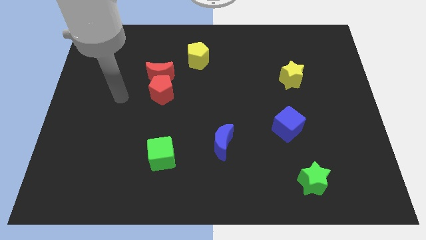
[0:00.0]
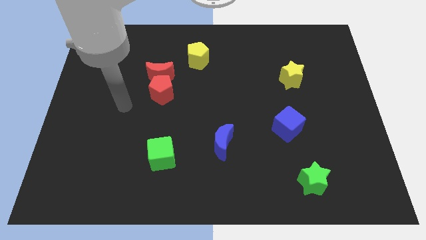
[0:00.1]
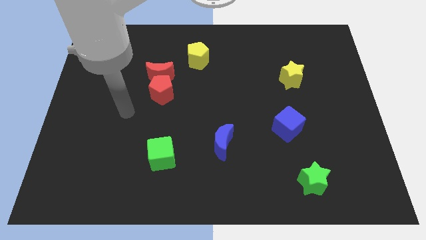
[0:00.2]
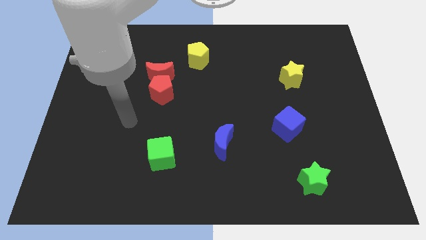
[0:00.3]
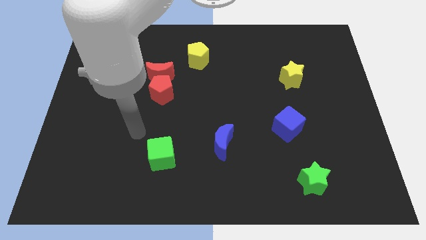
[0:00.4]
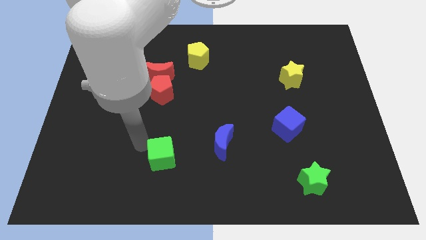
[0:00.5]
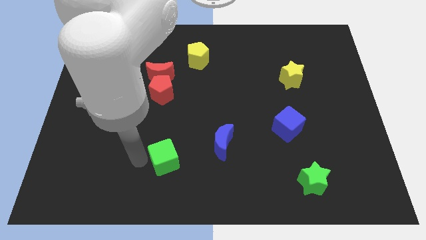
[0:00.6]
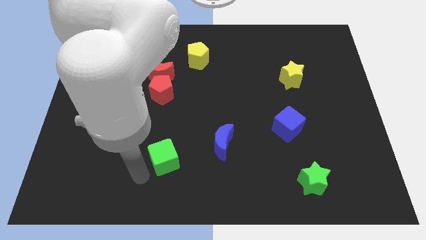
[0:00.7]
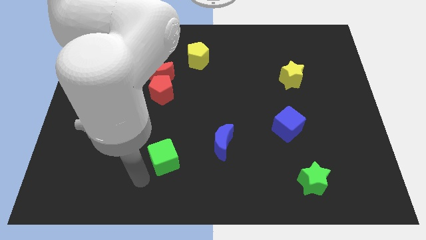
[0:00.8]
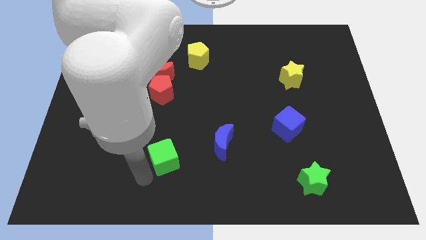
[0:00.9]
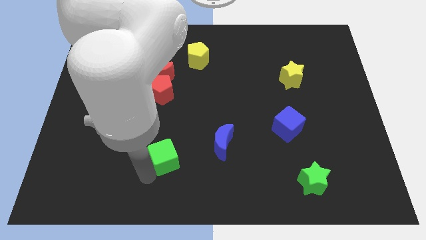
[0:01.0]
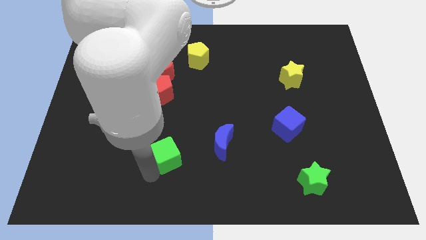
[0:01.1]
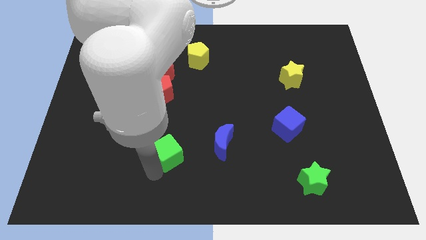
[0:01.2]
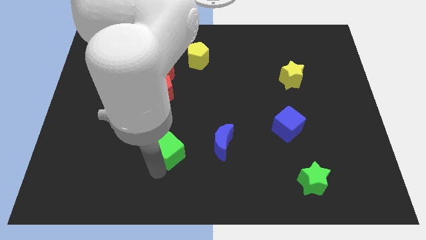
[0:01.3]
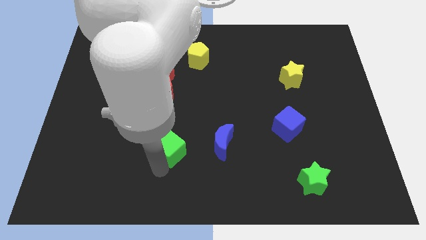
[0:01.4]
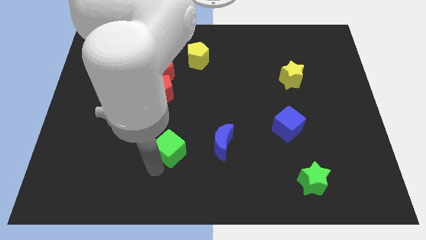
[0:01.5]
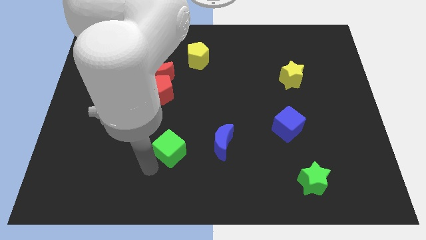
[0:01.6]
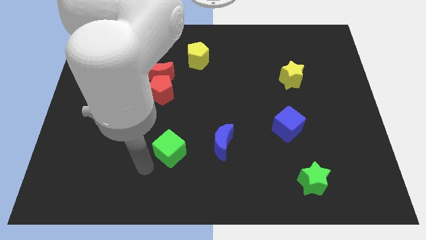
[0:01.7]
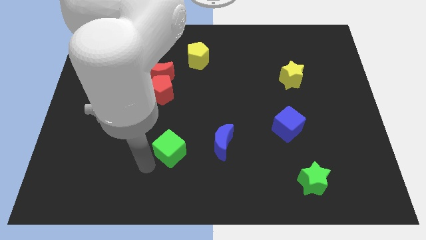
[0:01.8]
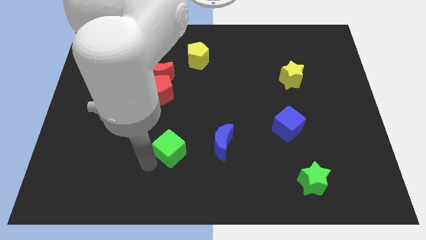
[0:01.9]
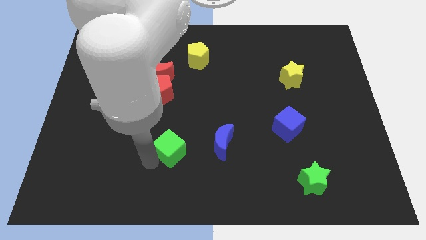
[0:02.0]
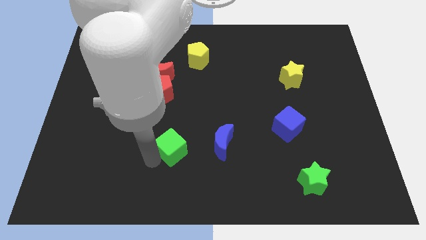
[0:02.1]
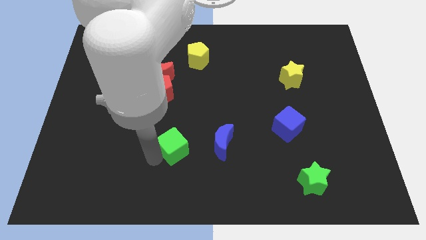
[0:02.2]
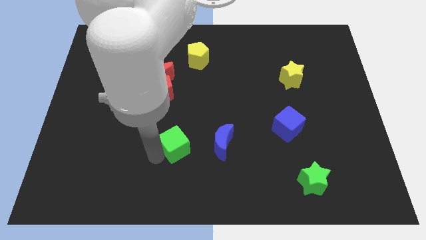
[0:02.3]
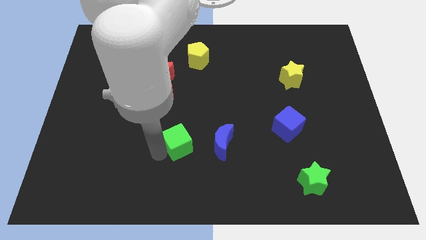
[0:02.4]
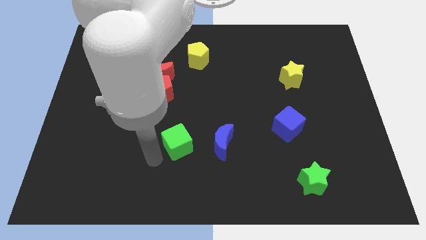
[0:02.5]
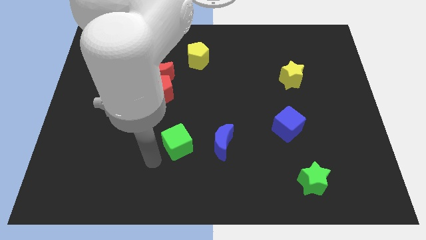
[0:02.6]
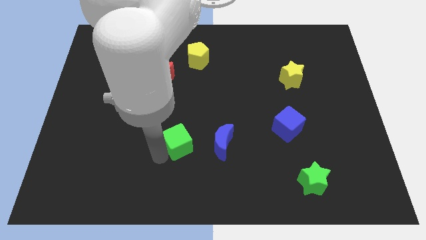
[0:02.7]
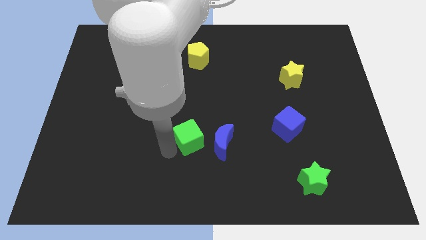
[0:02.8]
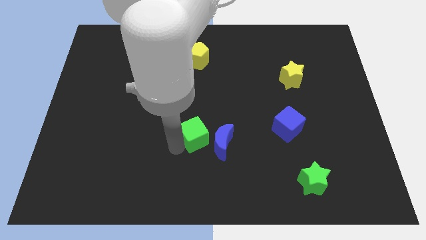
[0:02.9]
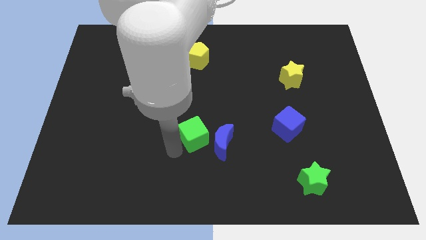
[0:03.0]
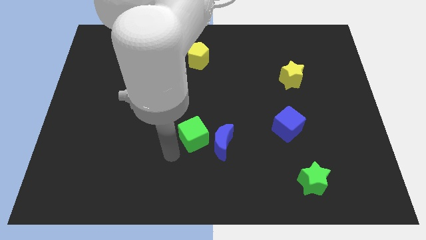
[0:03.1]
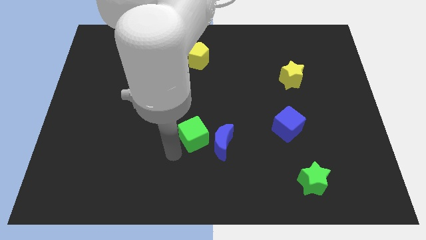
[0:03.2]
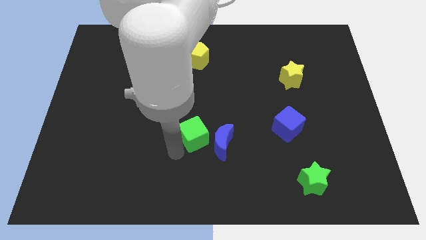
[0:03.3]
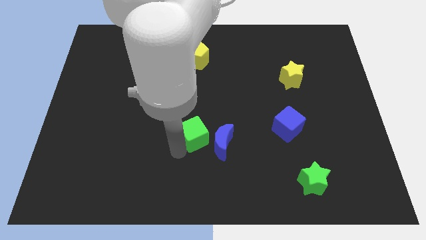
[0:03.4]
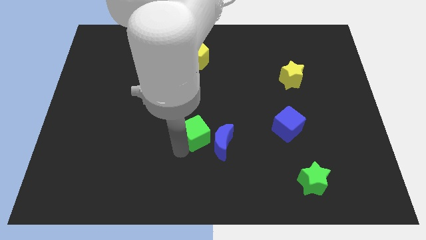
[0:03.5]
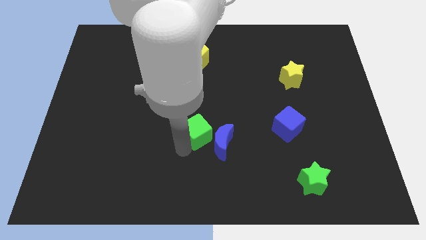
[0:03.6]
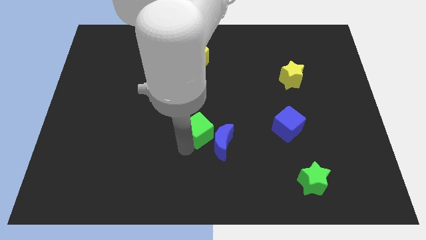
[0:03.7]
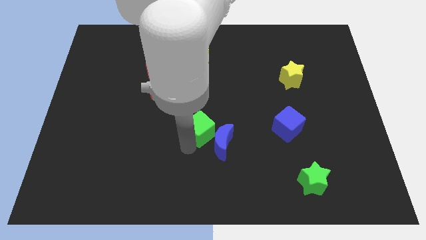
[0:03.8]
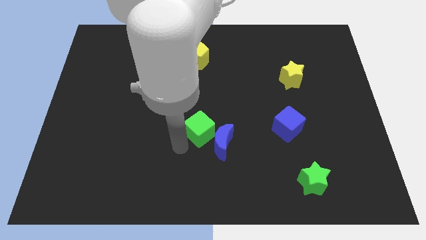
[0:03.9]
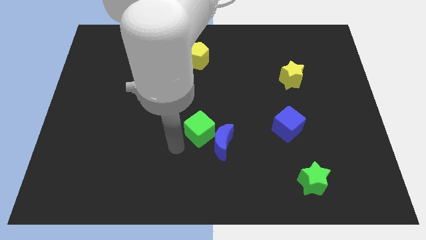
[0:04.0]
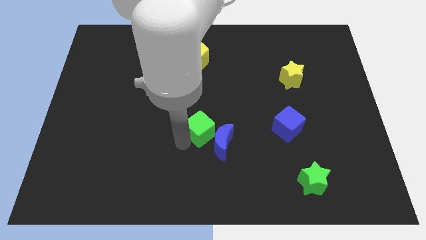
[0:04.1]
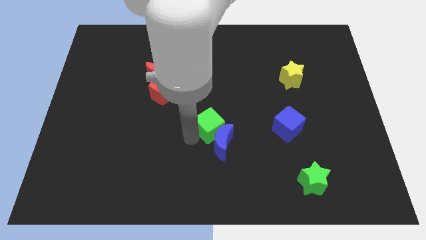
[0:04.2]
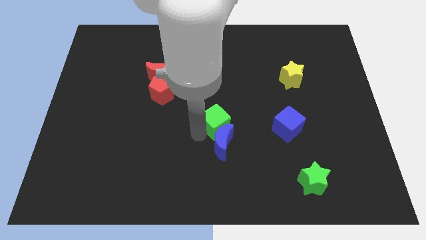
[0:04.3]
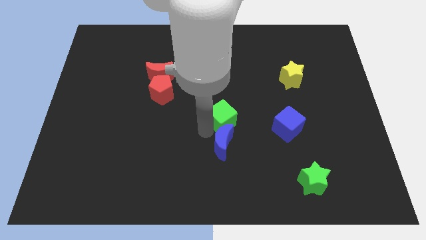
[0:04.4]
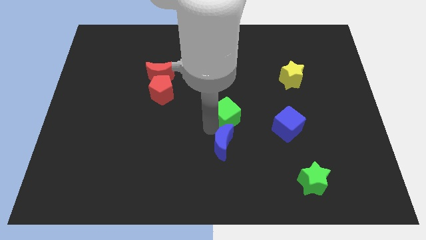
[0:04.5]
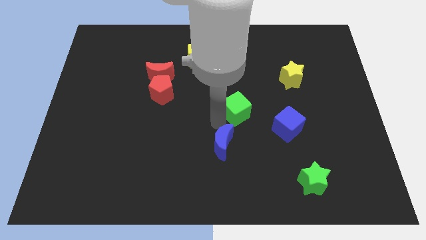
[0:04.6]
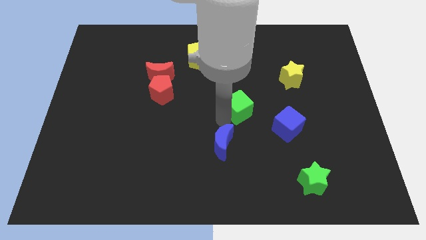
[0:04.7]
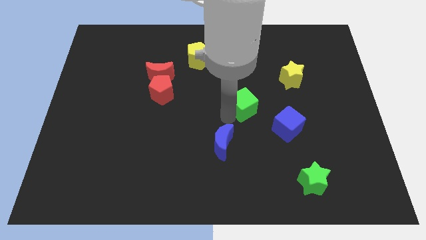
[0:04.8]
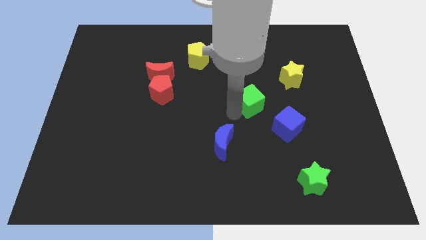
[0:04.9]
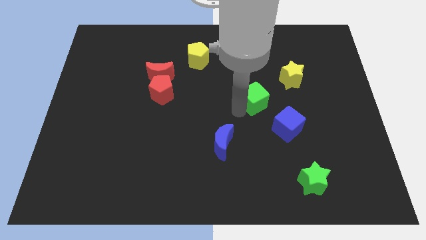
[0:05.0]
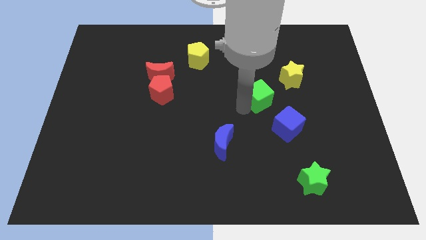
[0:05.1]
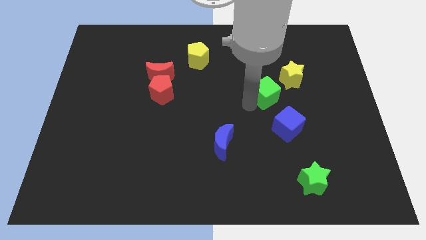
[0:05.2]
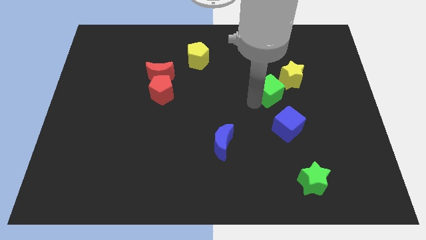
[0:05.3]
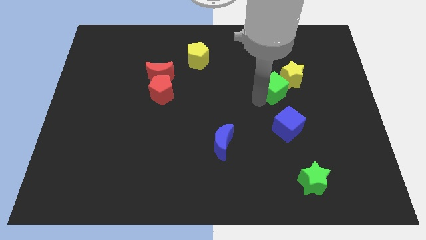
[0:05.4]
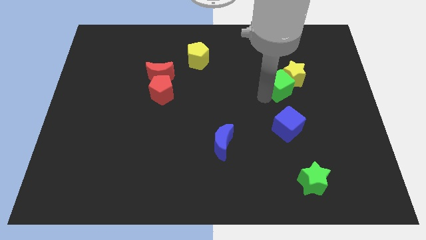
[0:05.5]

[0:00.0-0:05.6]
slide the green cube close to the yellow star
